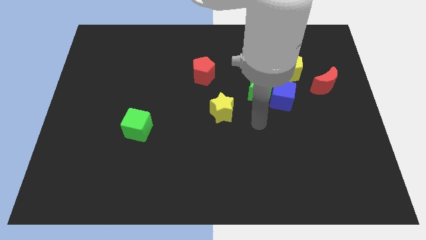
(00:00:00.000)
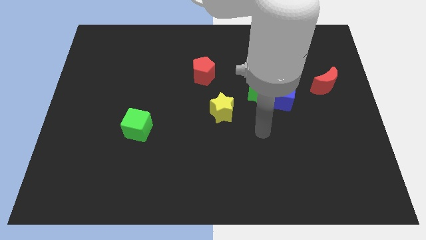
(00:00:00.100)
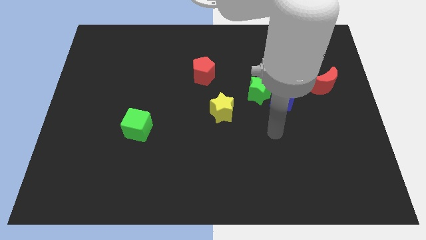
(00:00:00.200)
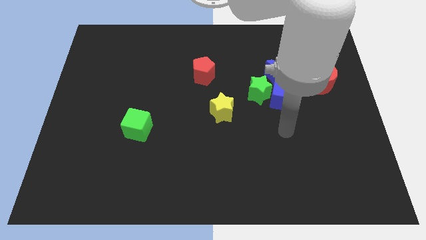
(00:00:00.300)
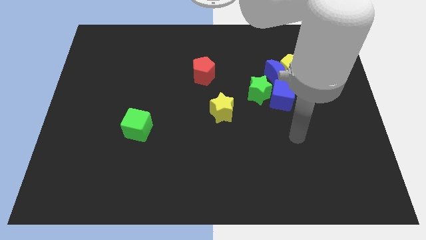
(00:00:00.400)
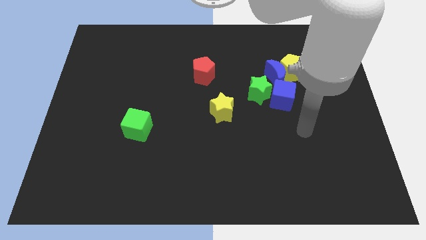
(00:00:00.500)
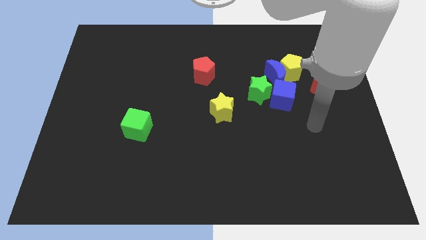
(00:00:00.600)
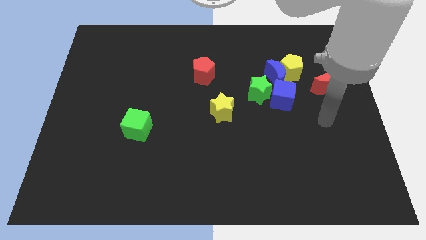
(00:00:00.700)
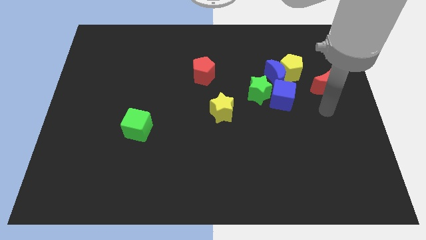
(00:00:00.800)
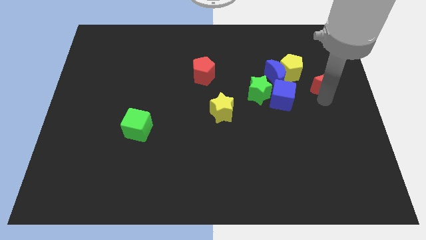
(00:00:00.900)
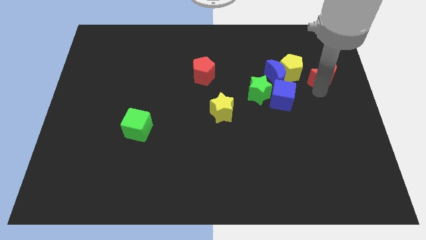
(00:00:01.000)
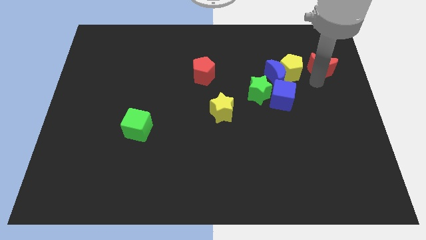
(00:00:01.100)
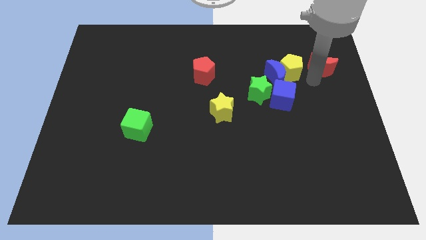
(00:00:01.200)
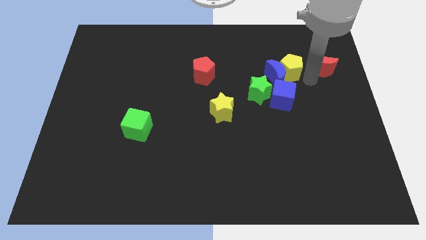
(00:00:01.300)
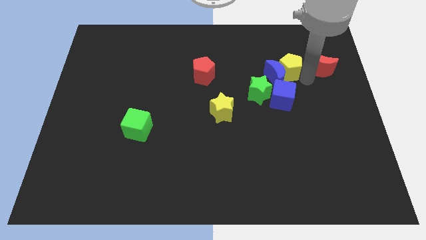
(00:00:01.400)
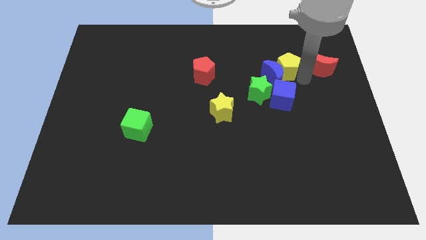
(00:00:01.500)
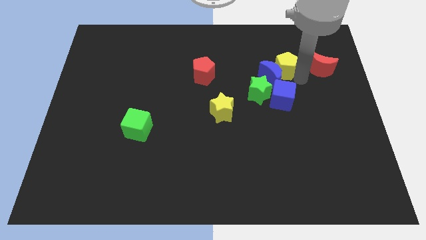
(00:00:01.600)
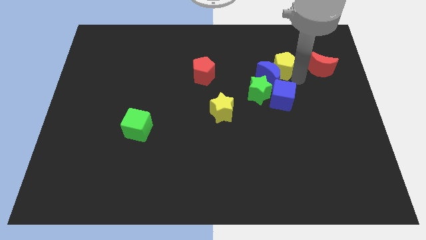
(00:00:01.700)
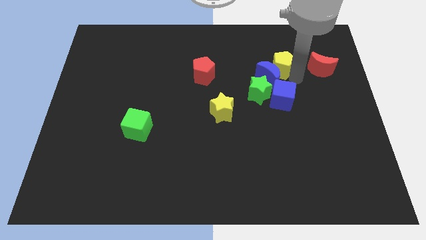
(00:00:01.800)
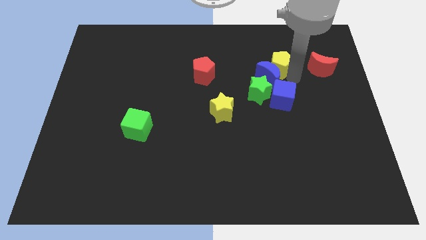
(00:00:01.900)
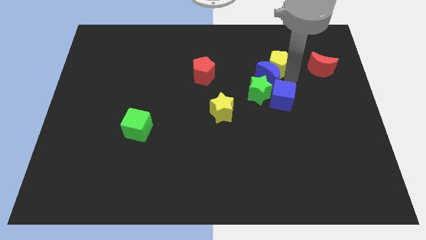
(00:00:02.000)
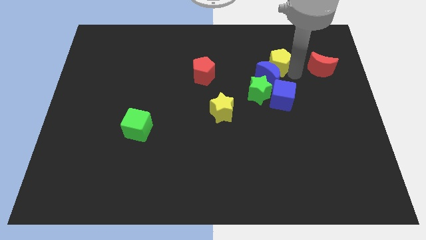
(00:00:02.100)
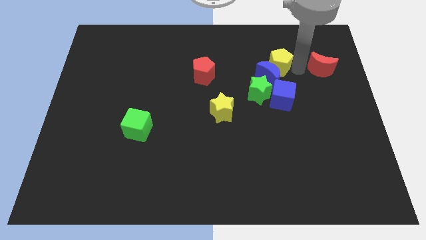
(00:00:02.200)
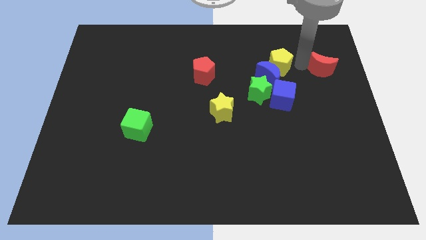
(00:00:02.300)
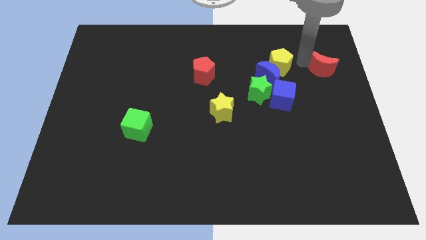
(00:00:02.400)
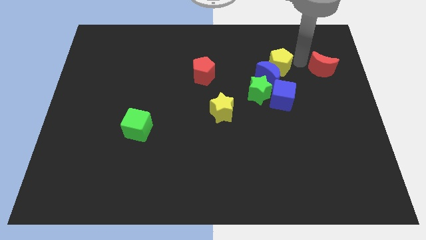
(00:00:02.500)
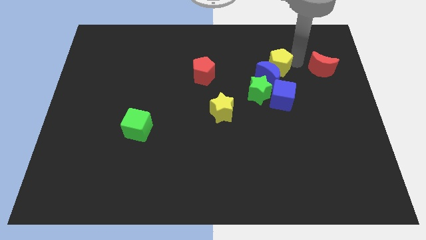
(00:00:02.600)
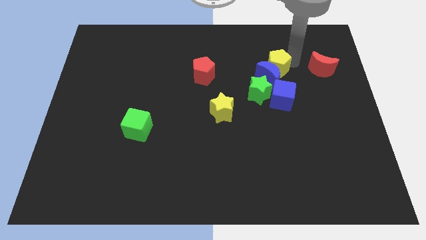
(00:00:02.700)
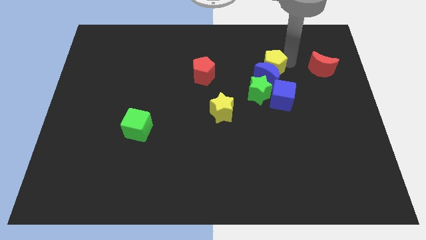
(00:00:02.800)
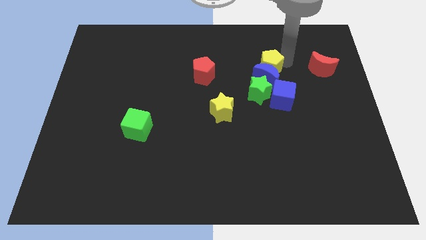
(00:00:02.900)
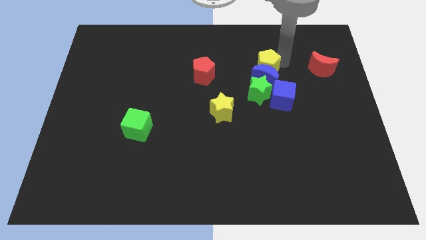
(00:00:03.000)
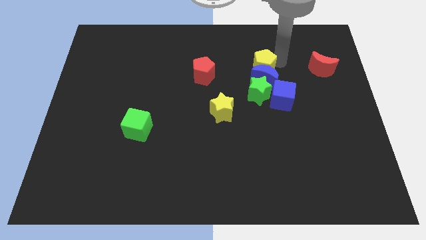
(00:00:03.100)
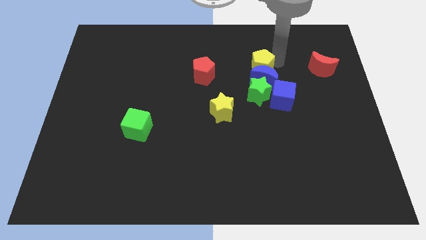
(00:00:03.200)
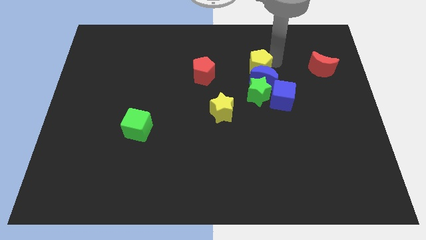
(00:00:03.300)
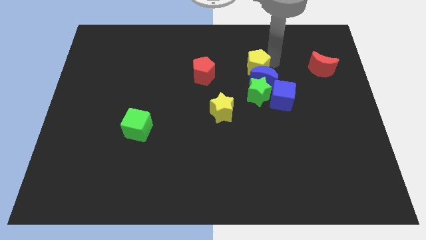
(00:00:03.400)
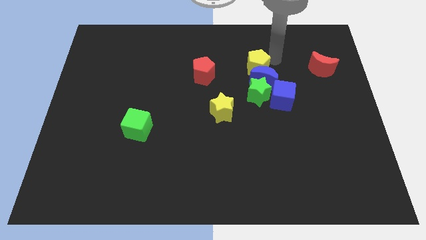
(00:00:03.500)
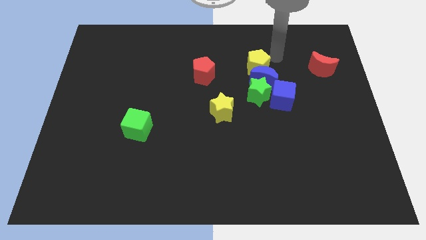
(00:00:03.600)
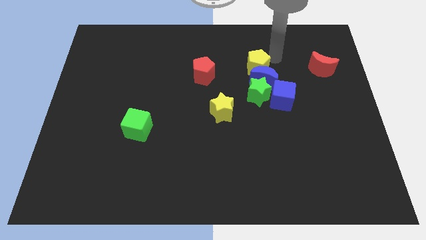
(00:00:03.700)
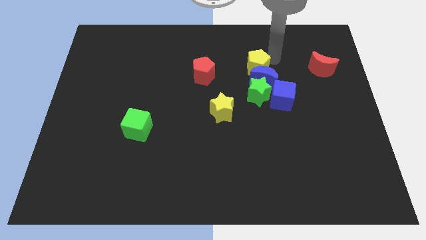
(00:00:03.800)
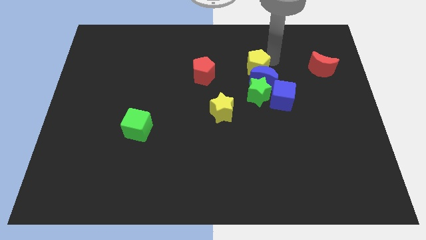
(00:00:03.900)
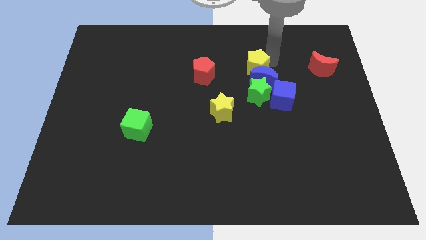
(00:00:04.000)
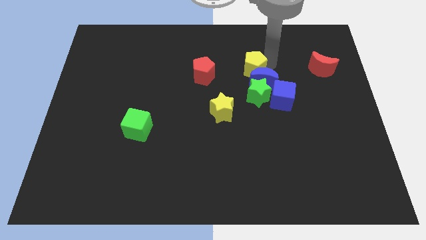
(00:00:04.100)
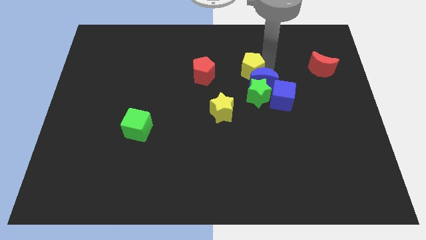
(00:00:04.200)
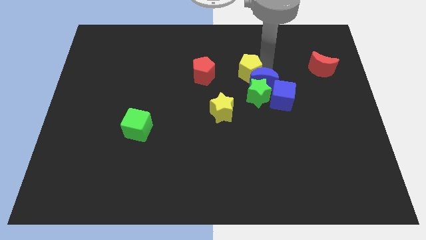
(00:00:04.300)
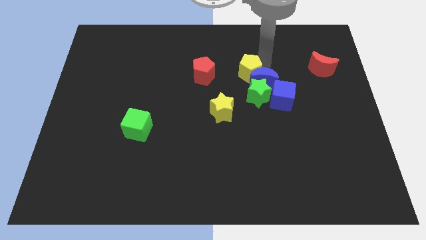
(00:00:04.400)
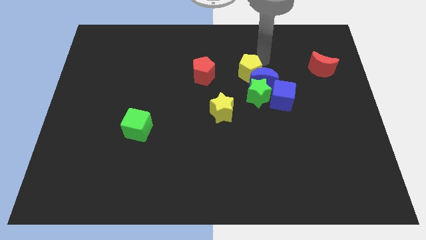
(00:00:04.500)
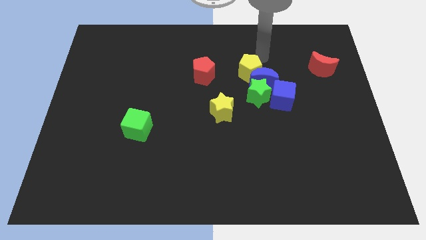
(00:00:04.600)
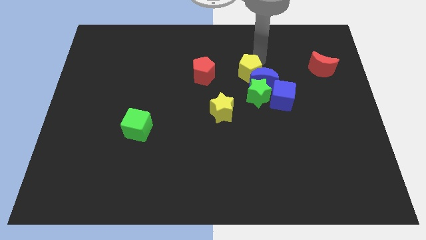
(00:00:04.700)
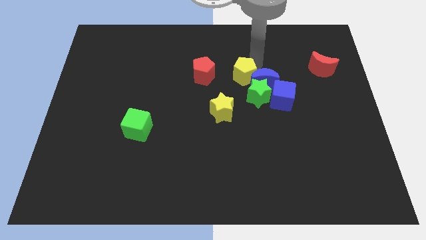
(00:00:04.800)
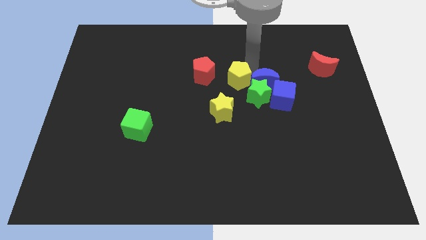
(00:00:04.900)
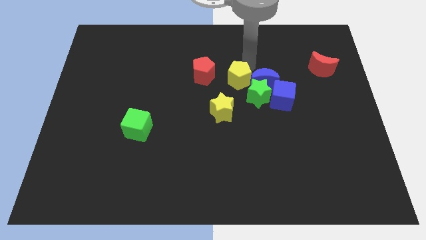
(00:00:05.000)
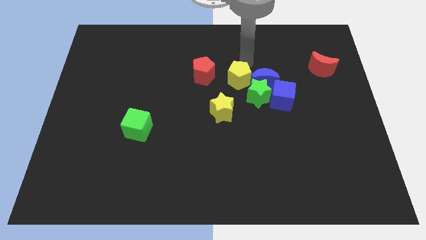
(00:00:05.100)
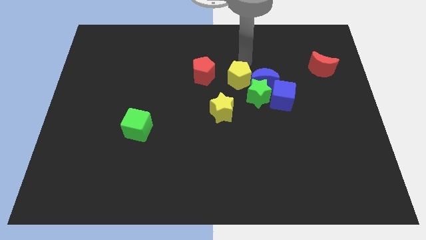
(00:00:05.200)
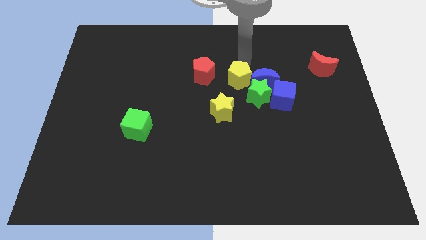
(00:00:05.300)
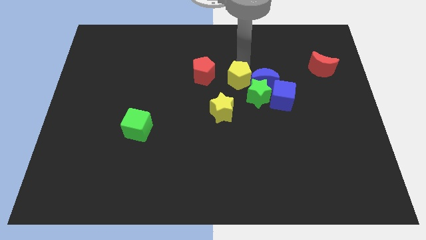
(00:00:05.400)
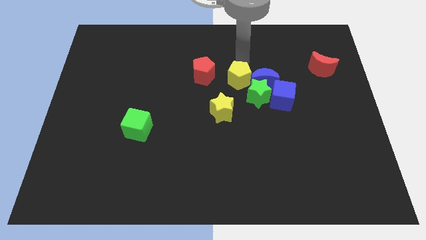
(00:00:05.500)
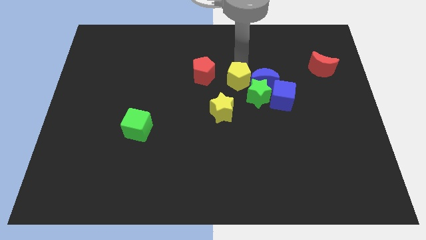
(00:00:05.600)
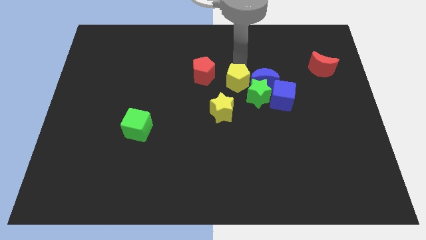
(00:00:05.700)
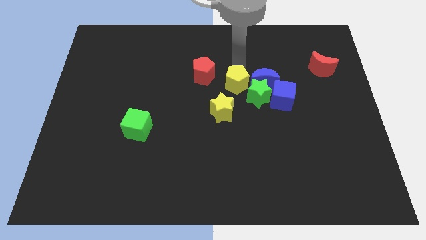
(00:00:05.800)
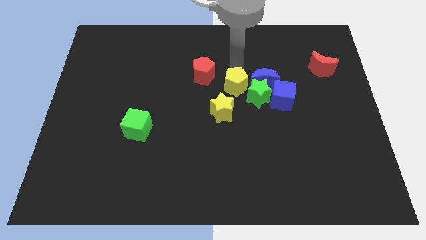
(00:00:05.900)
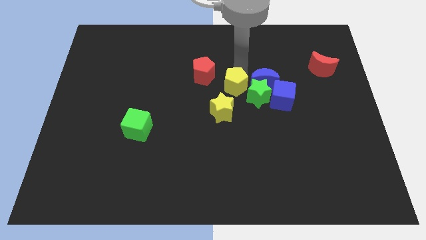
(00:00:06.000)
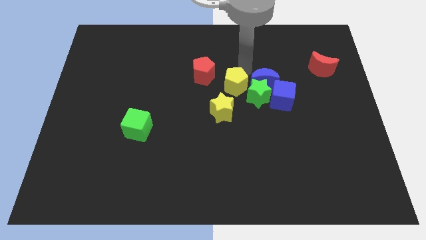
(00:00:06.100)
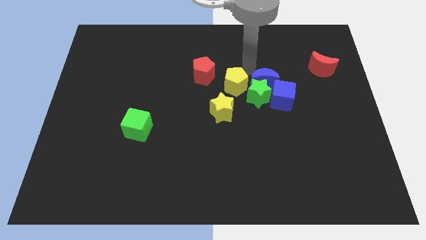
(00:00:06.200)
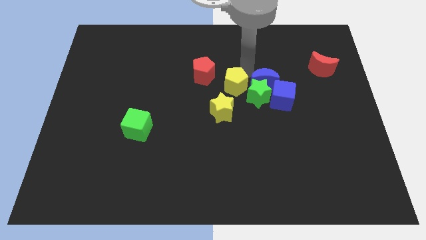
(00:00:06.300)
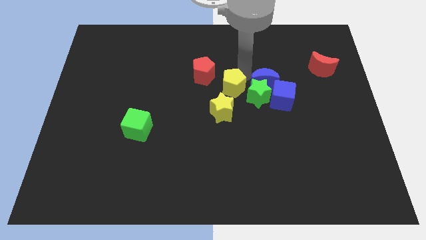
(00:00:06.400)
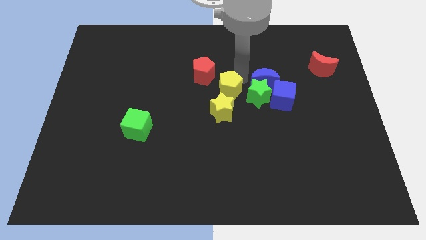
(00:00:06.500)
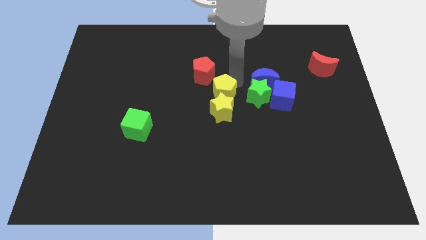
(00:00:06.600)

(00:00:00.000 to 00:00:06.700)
slide the yellow pentagon towards the yellow star

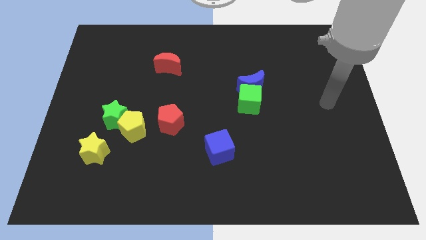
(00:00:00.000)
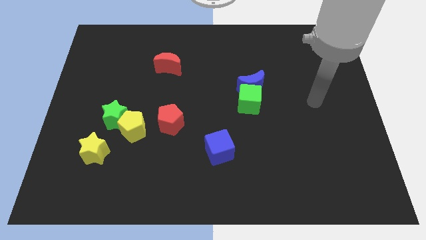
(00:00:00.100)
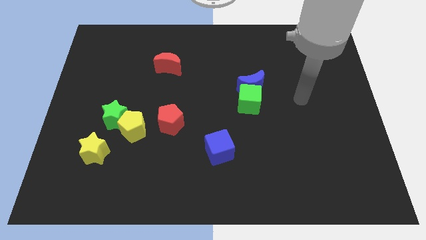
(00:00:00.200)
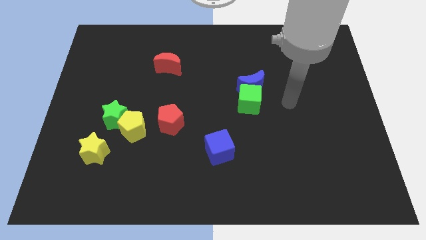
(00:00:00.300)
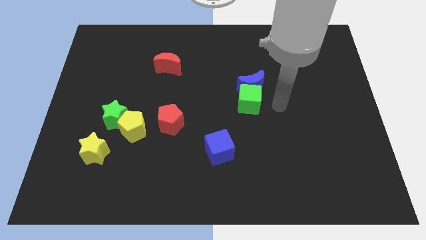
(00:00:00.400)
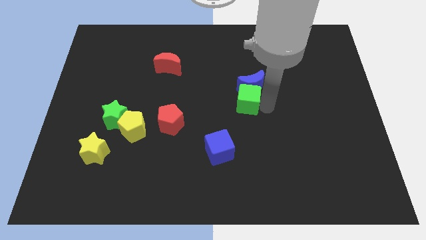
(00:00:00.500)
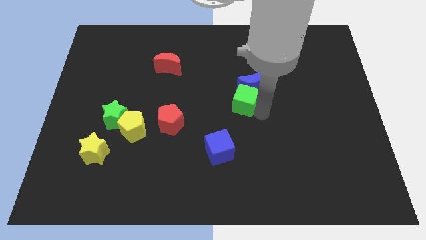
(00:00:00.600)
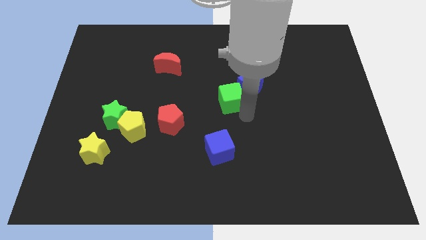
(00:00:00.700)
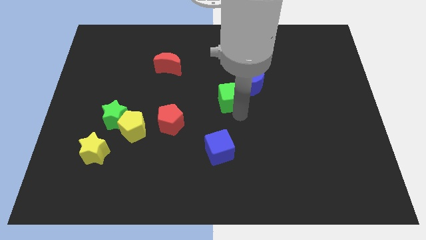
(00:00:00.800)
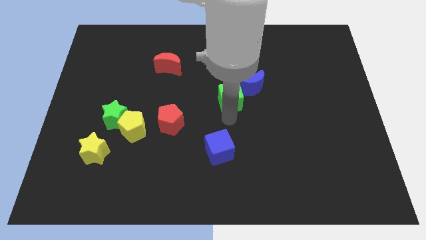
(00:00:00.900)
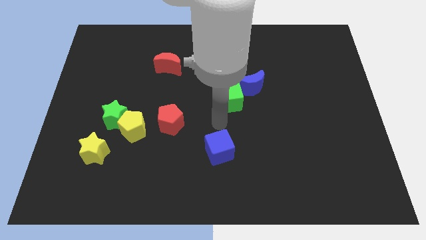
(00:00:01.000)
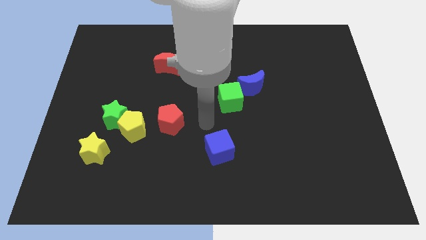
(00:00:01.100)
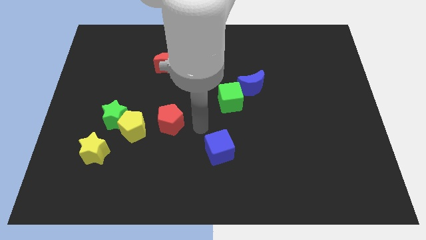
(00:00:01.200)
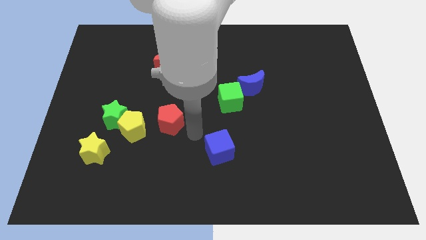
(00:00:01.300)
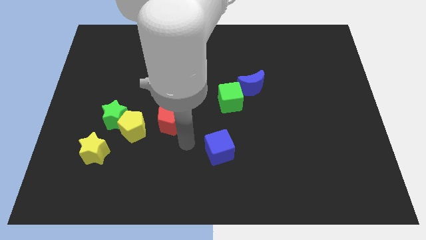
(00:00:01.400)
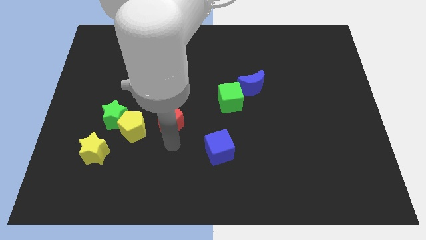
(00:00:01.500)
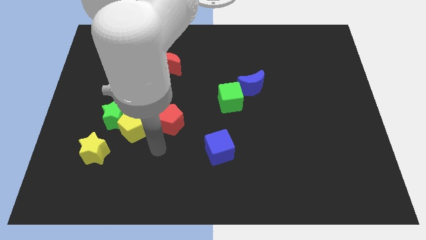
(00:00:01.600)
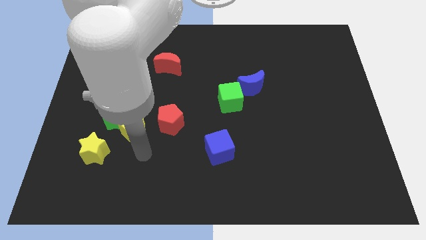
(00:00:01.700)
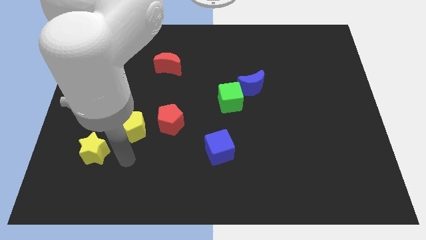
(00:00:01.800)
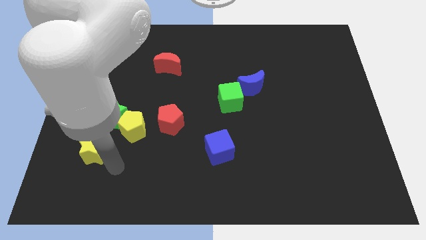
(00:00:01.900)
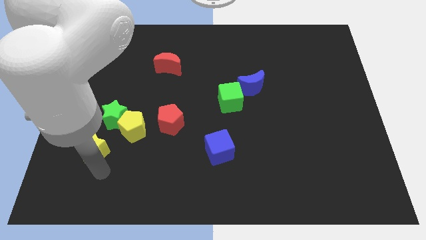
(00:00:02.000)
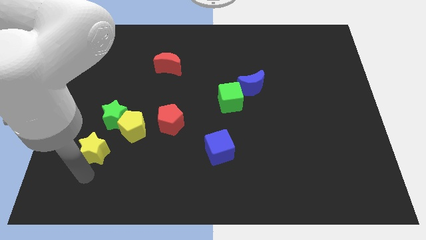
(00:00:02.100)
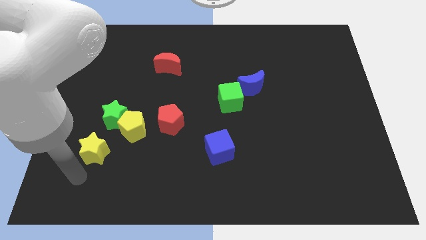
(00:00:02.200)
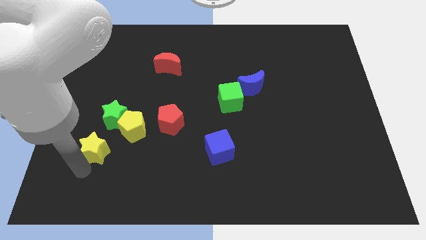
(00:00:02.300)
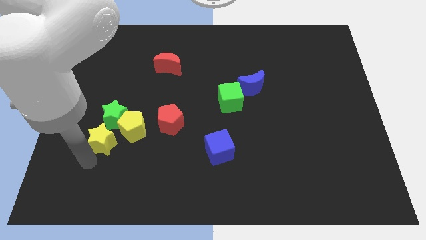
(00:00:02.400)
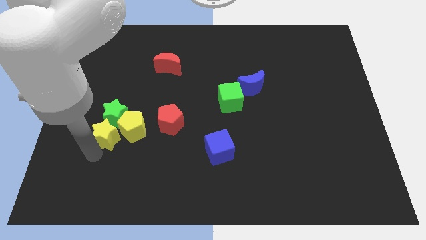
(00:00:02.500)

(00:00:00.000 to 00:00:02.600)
push the yellow star next to the green star
